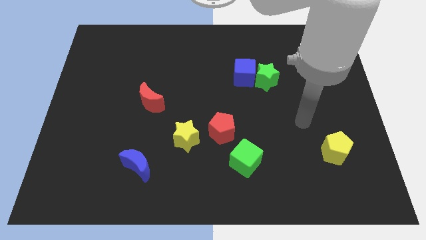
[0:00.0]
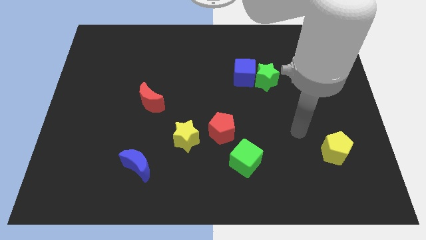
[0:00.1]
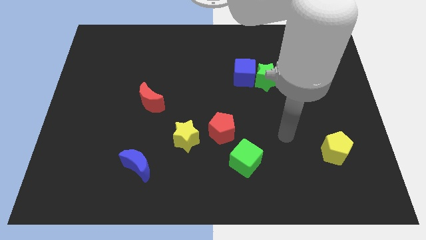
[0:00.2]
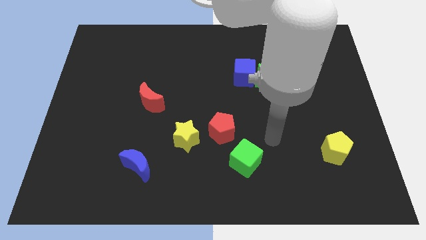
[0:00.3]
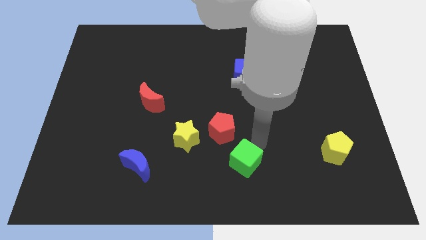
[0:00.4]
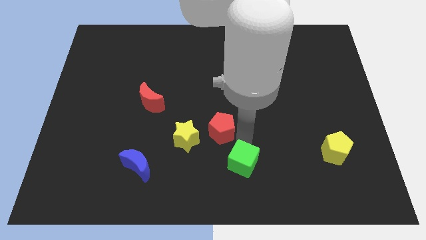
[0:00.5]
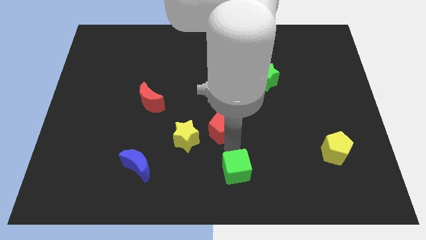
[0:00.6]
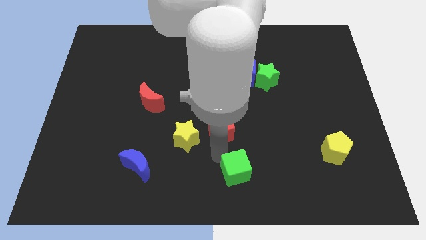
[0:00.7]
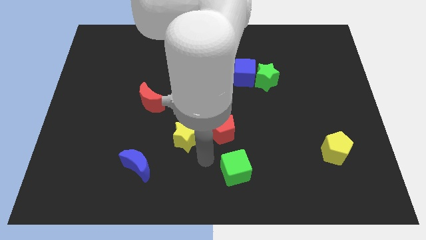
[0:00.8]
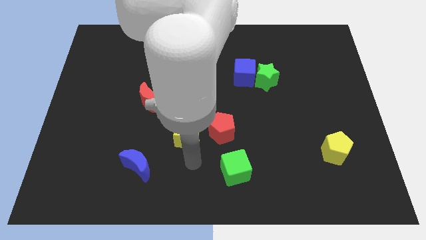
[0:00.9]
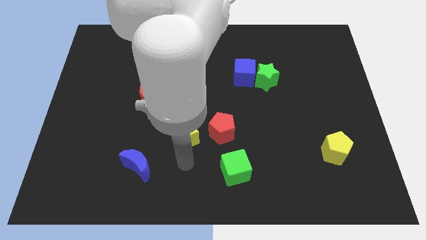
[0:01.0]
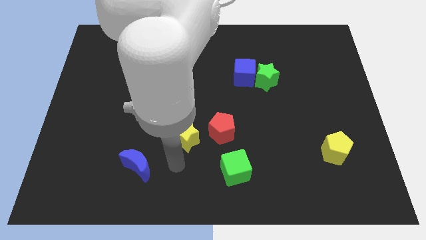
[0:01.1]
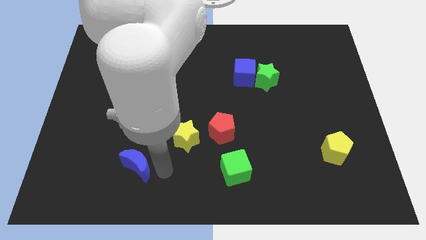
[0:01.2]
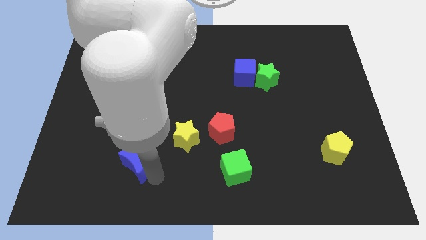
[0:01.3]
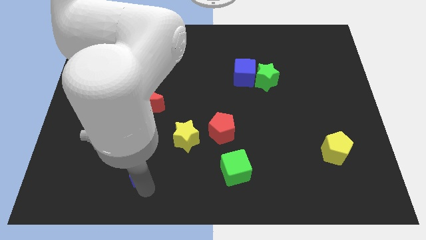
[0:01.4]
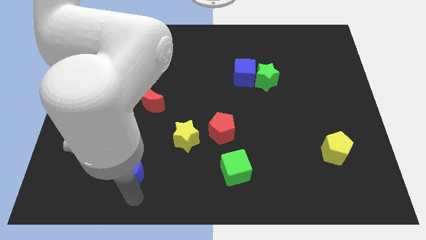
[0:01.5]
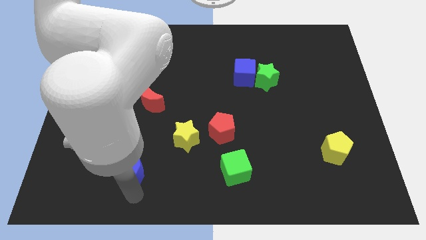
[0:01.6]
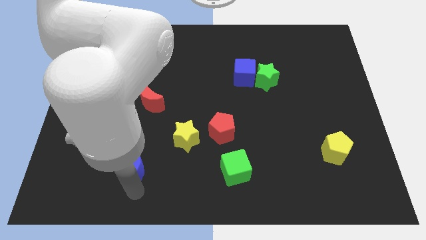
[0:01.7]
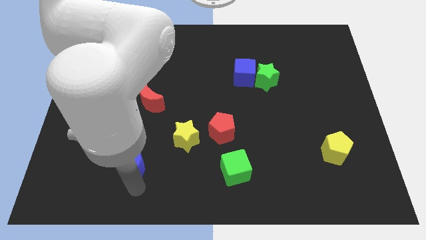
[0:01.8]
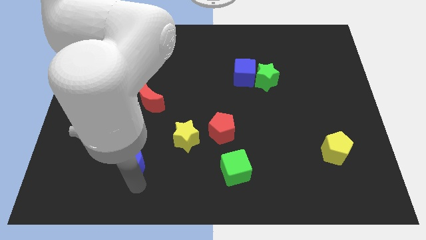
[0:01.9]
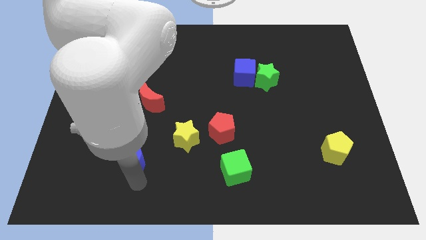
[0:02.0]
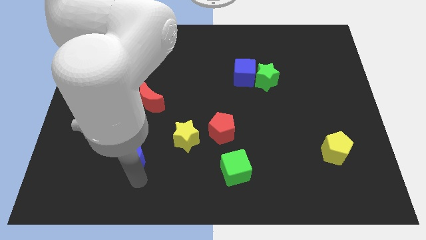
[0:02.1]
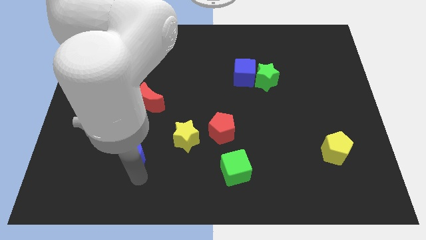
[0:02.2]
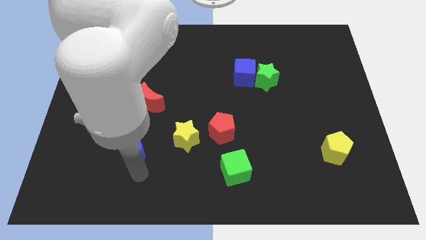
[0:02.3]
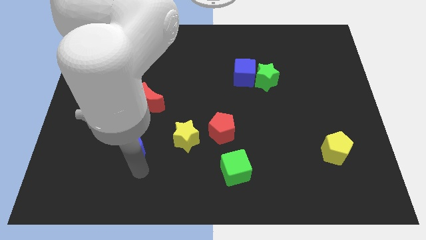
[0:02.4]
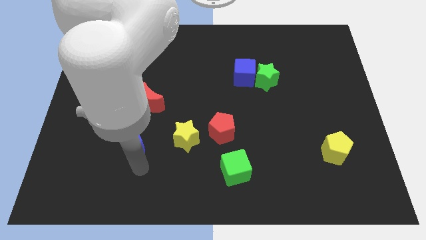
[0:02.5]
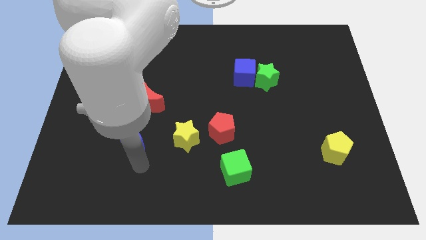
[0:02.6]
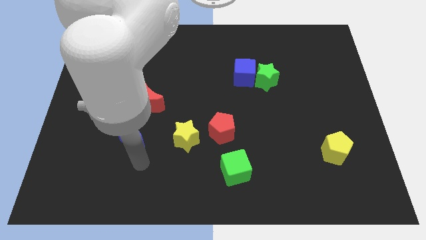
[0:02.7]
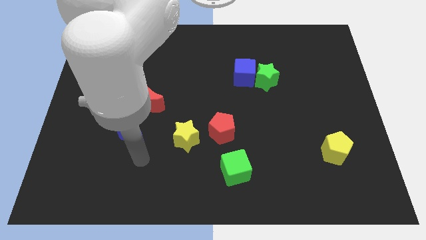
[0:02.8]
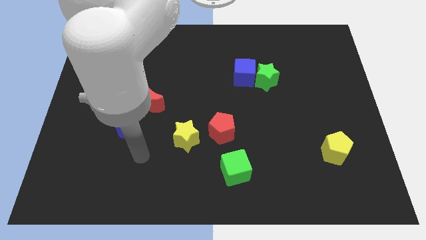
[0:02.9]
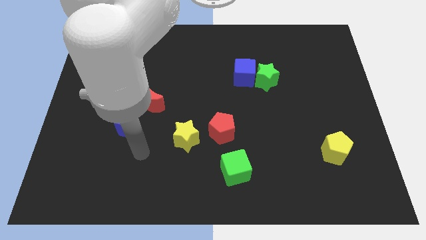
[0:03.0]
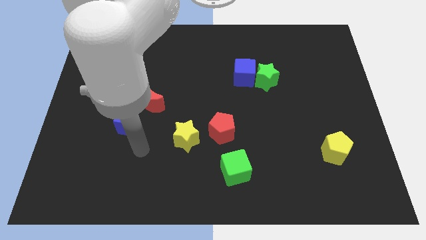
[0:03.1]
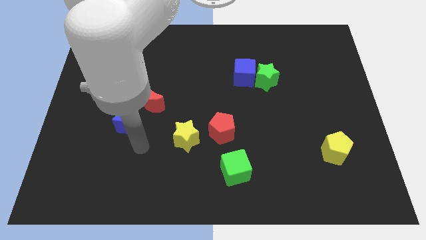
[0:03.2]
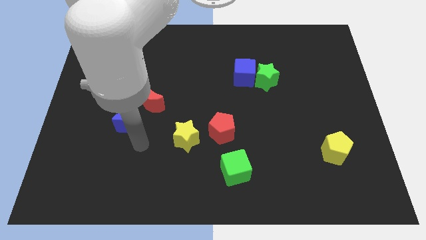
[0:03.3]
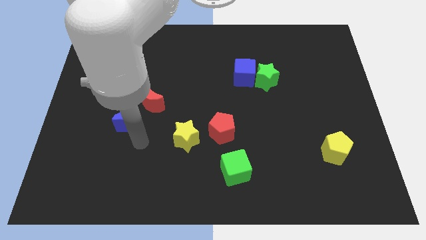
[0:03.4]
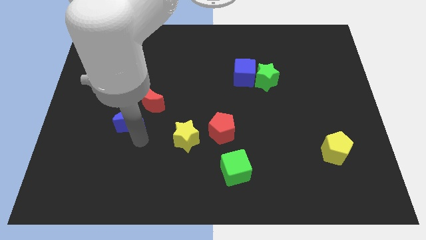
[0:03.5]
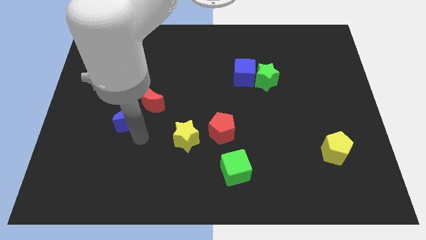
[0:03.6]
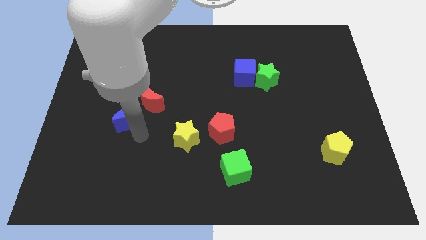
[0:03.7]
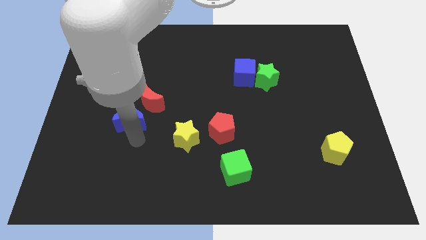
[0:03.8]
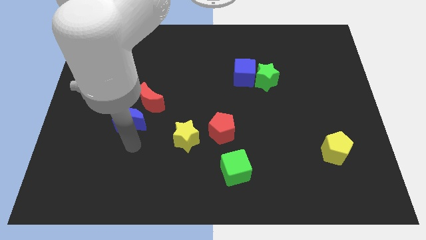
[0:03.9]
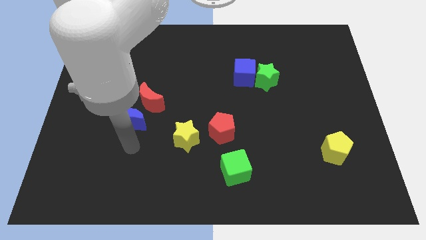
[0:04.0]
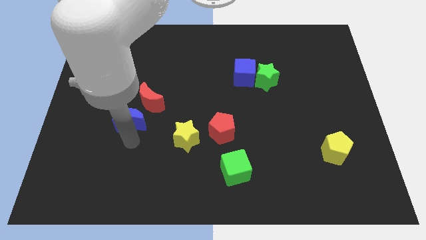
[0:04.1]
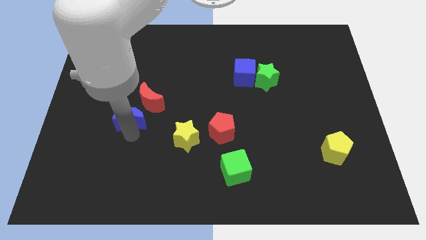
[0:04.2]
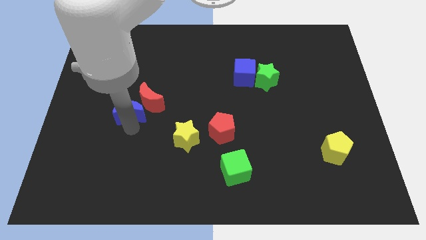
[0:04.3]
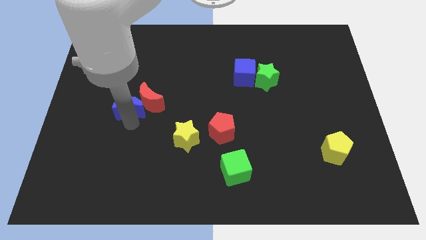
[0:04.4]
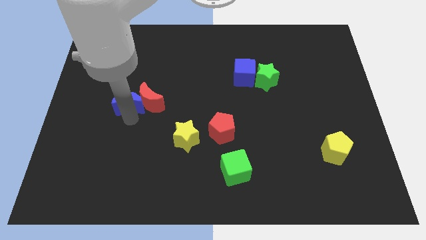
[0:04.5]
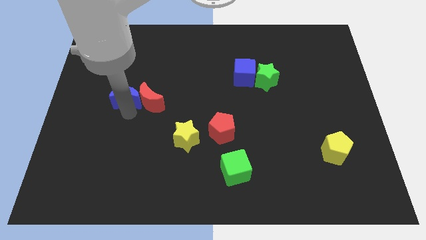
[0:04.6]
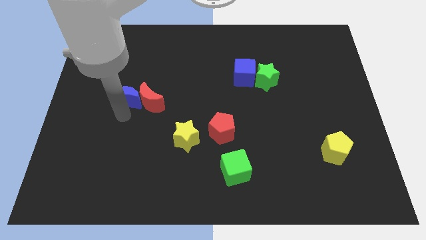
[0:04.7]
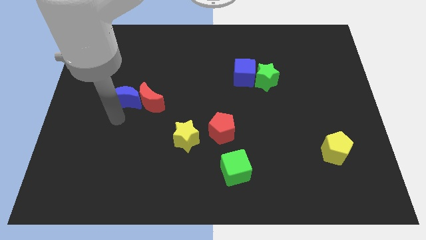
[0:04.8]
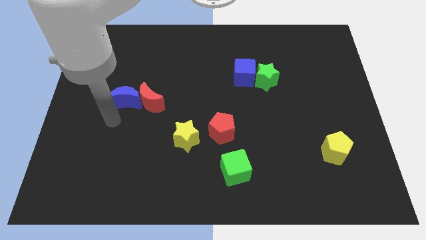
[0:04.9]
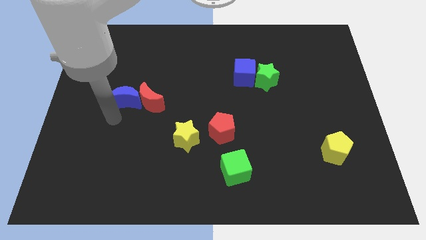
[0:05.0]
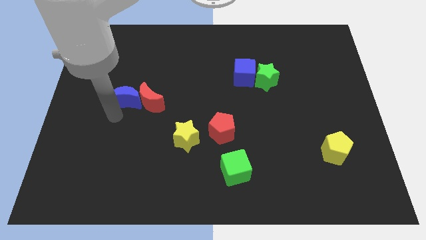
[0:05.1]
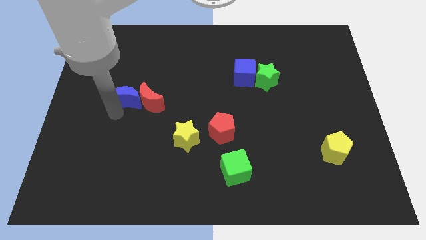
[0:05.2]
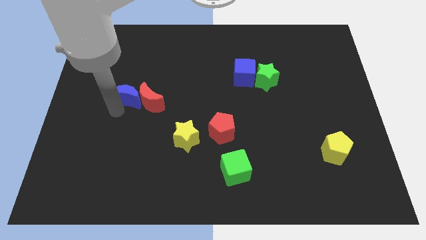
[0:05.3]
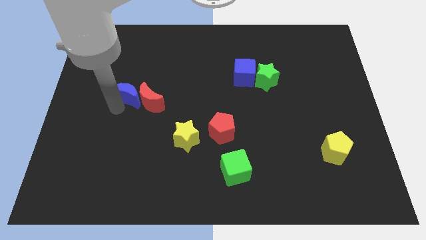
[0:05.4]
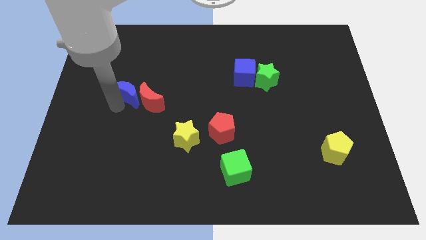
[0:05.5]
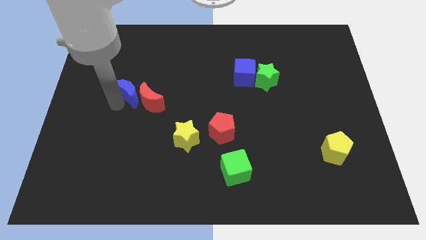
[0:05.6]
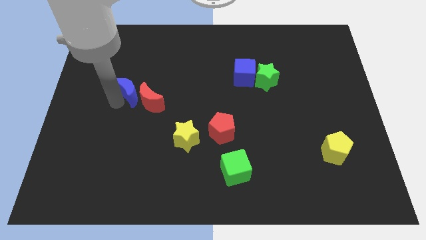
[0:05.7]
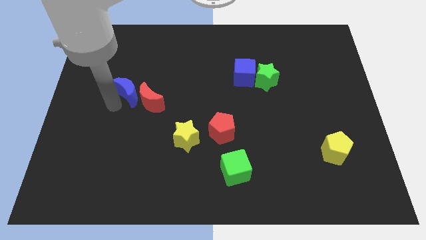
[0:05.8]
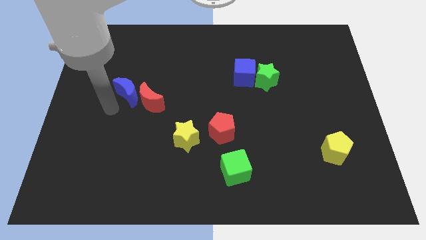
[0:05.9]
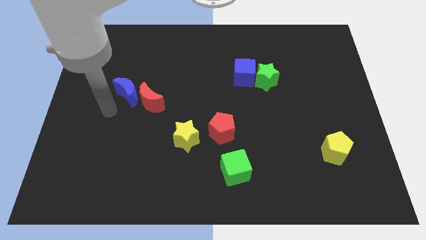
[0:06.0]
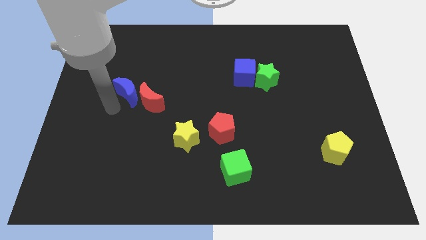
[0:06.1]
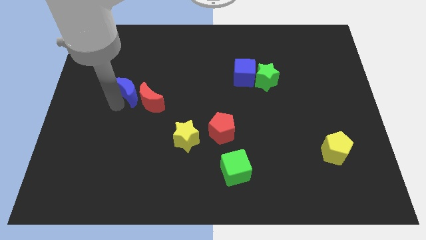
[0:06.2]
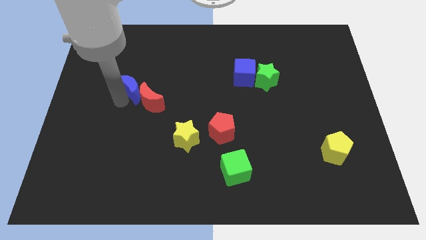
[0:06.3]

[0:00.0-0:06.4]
slide the blue moon up

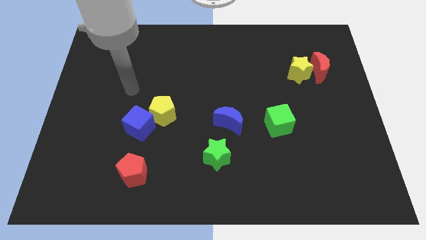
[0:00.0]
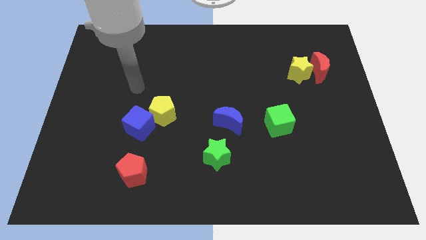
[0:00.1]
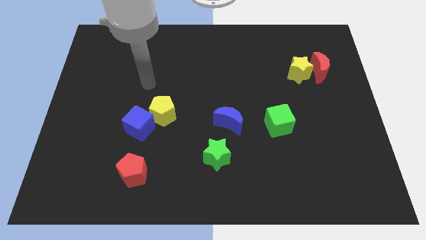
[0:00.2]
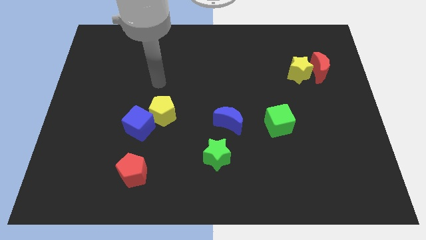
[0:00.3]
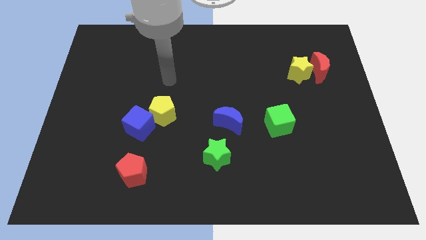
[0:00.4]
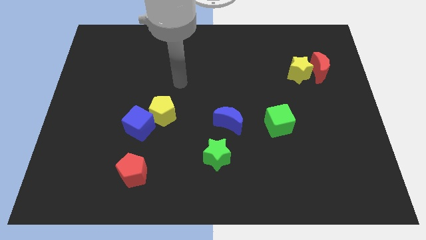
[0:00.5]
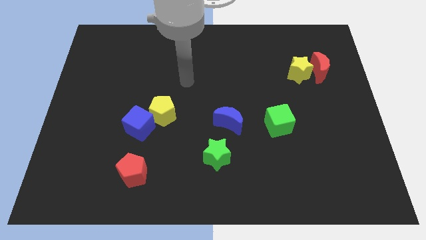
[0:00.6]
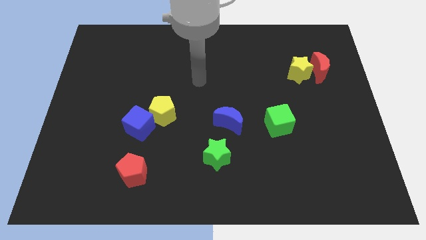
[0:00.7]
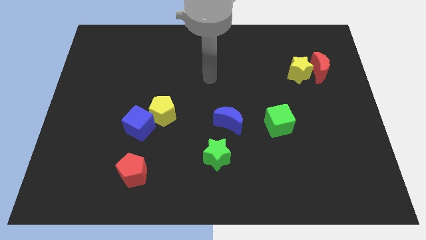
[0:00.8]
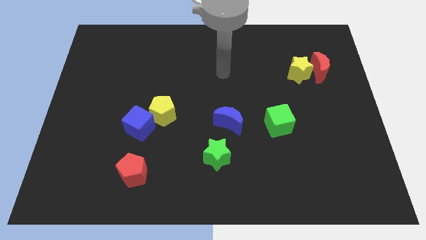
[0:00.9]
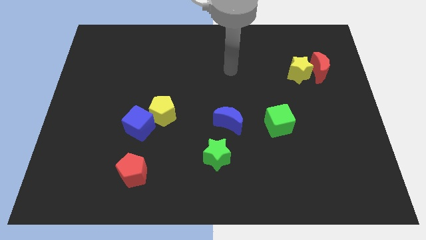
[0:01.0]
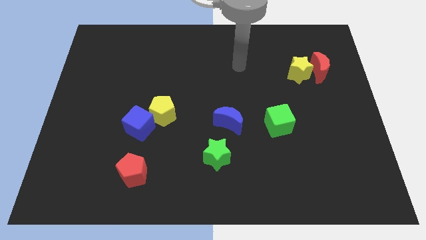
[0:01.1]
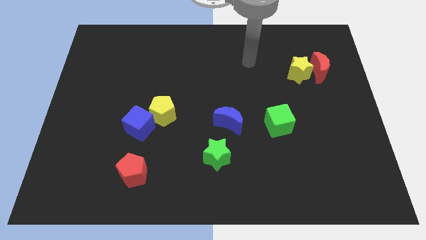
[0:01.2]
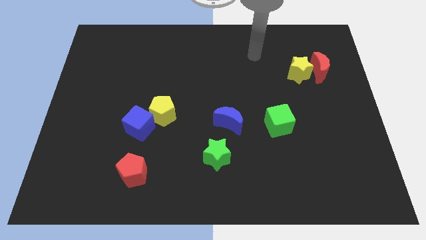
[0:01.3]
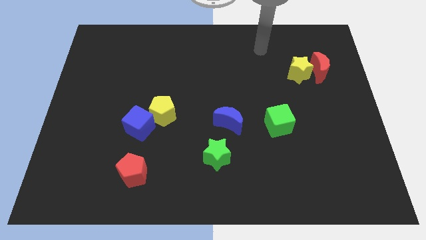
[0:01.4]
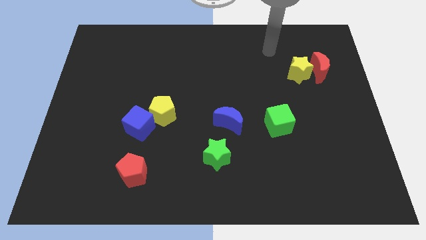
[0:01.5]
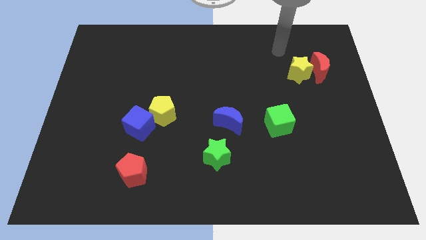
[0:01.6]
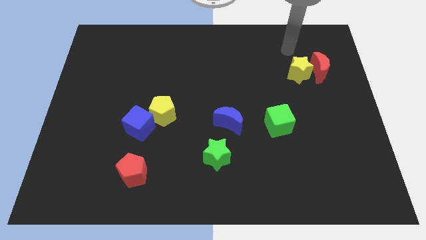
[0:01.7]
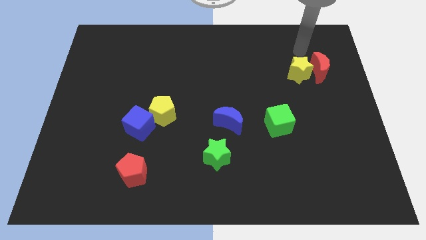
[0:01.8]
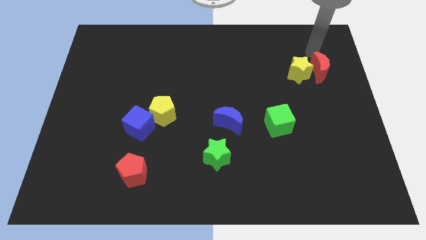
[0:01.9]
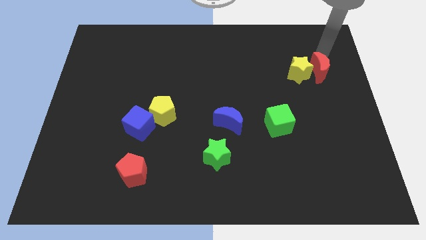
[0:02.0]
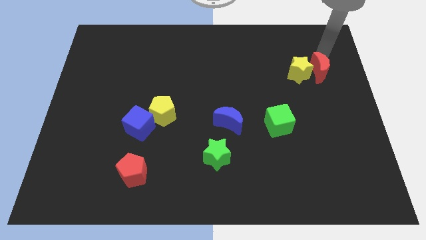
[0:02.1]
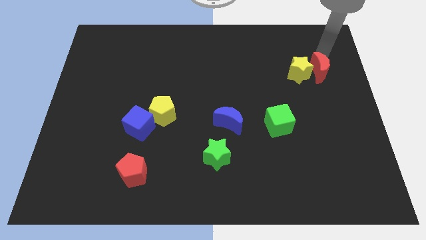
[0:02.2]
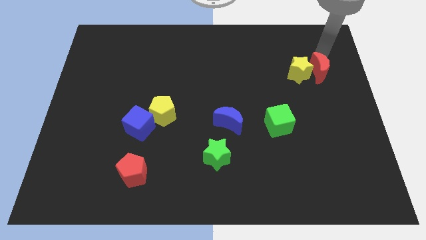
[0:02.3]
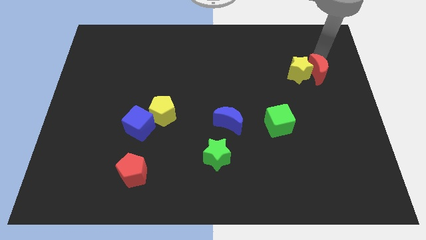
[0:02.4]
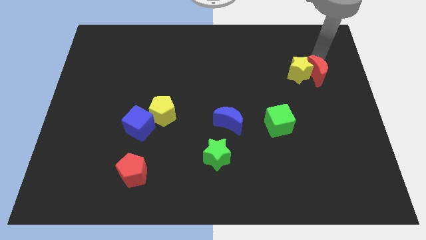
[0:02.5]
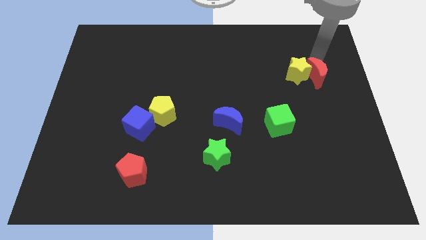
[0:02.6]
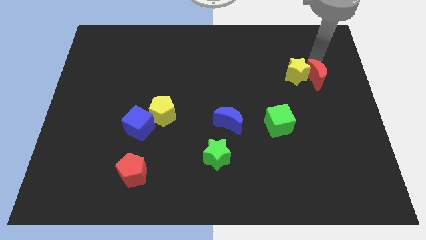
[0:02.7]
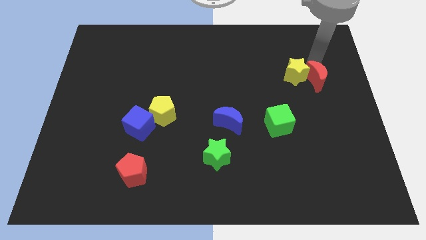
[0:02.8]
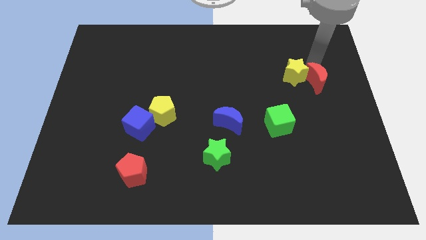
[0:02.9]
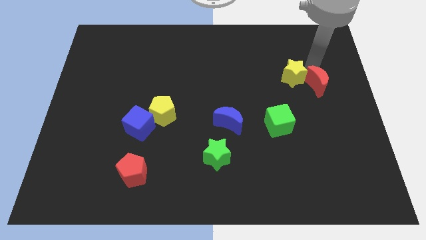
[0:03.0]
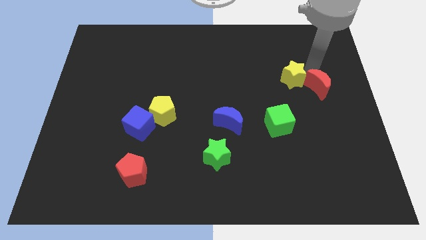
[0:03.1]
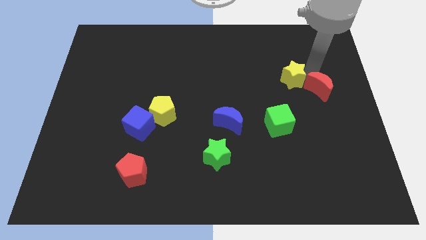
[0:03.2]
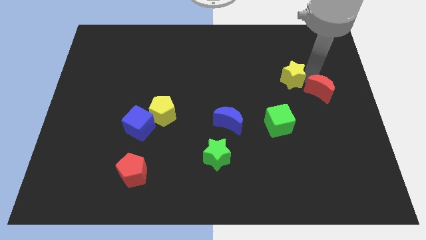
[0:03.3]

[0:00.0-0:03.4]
slide the red moon down slightly
